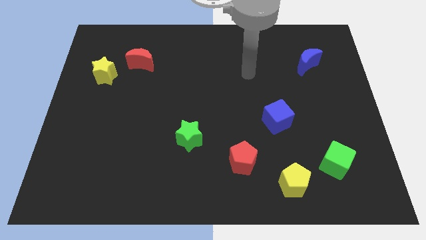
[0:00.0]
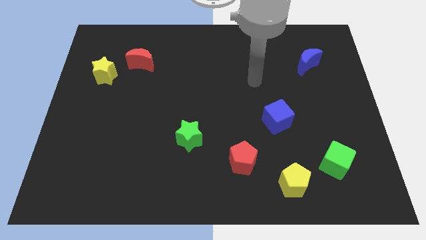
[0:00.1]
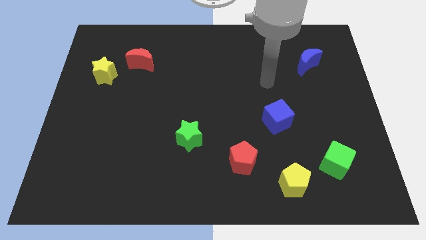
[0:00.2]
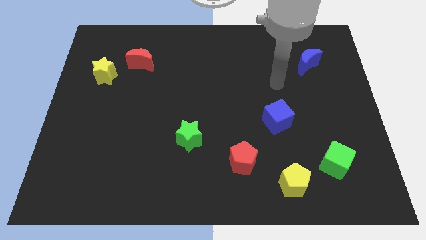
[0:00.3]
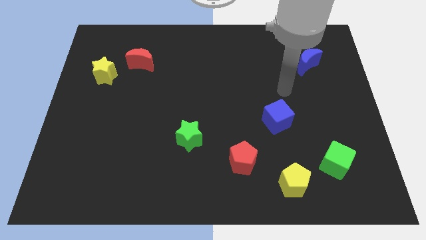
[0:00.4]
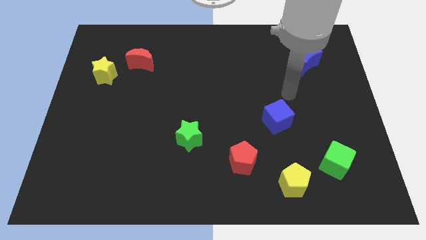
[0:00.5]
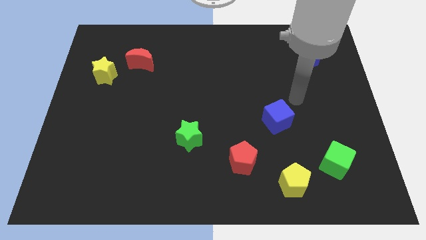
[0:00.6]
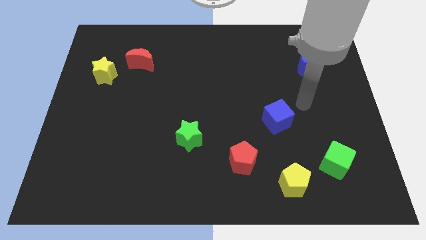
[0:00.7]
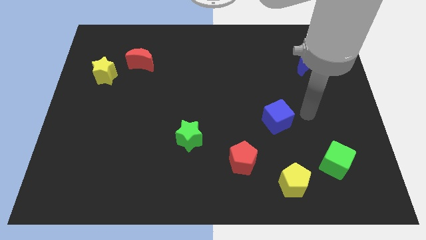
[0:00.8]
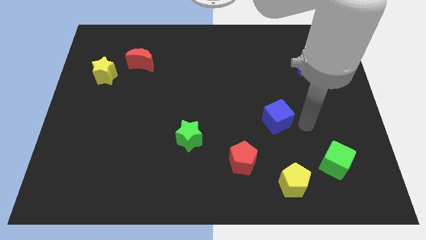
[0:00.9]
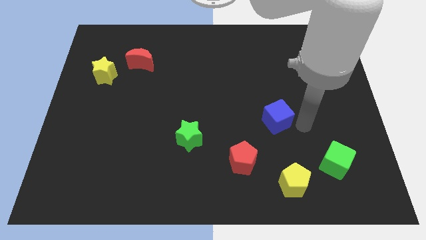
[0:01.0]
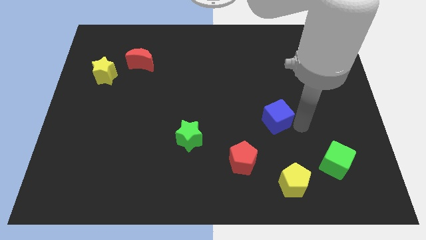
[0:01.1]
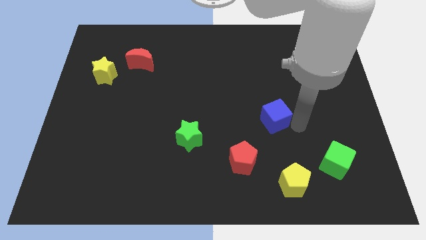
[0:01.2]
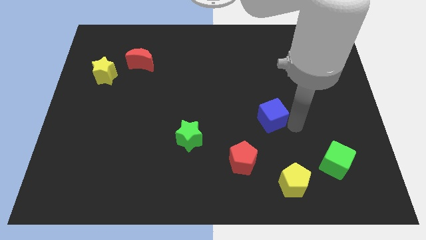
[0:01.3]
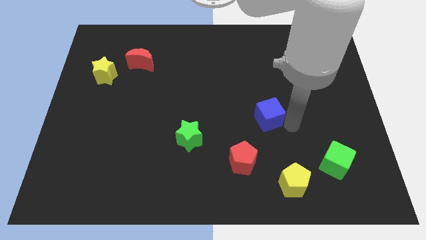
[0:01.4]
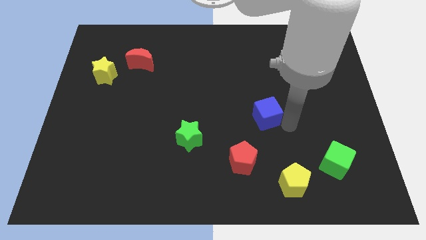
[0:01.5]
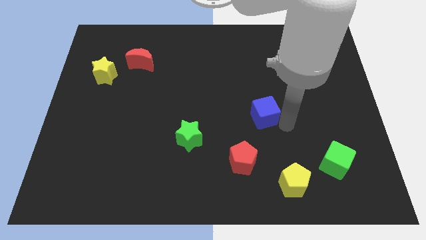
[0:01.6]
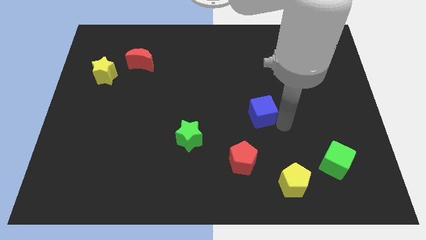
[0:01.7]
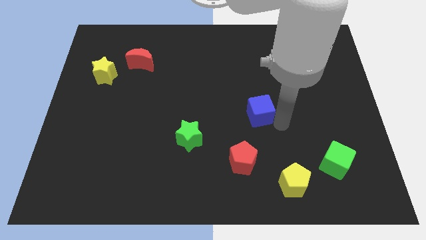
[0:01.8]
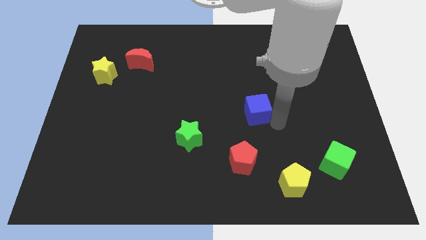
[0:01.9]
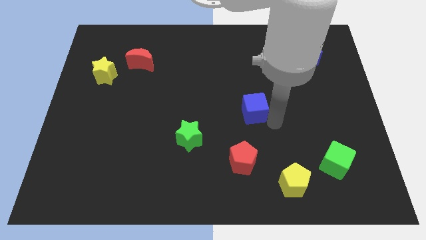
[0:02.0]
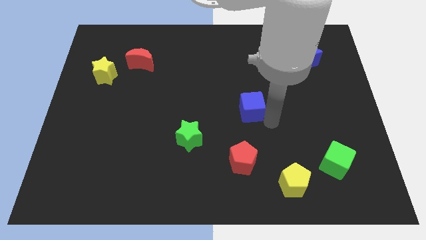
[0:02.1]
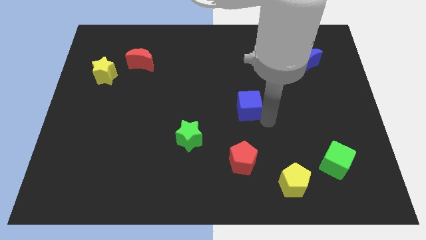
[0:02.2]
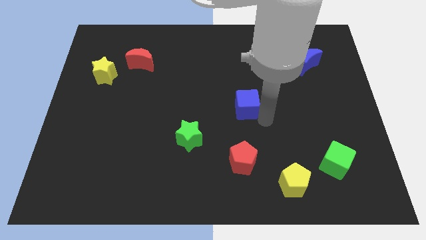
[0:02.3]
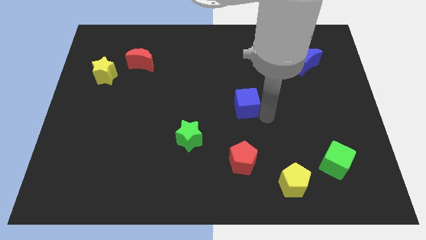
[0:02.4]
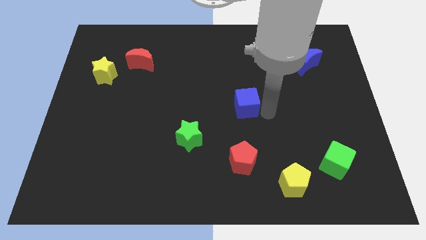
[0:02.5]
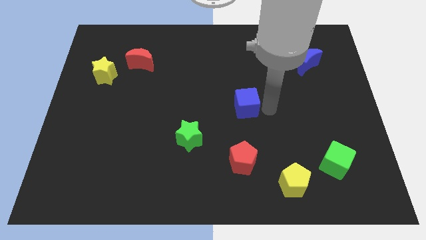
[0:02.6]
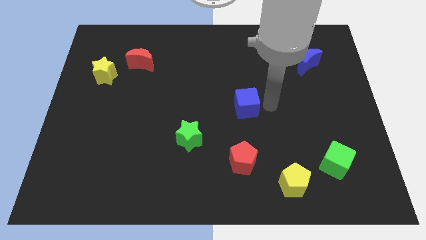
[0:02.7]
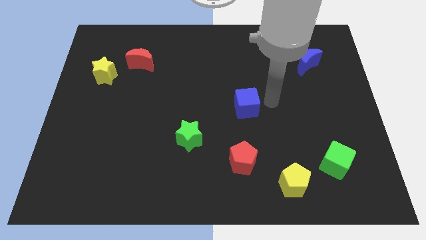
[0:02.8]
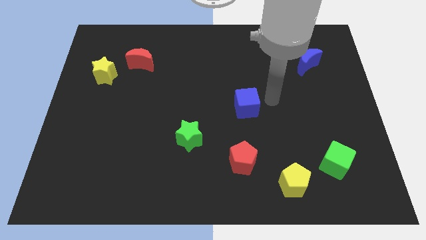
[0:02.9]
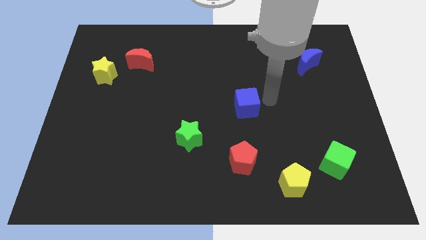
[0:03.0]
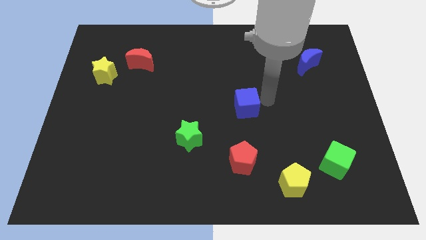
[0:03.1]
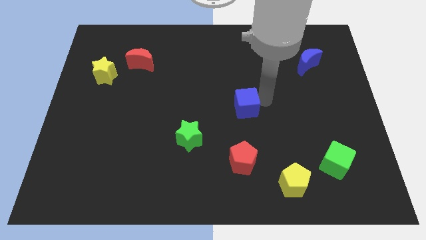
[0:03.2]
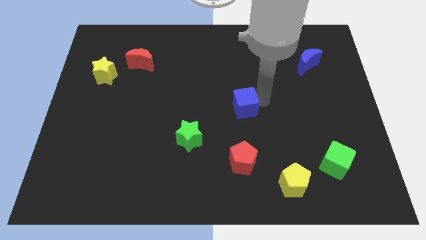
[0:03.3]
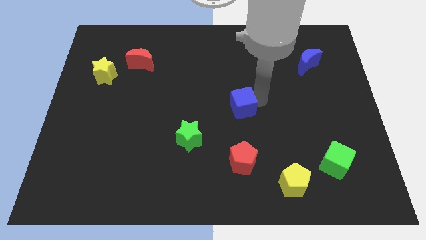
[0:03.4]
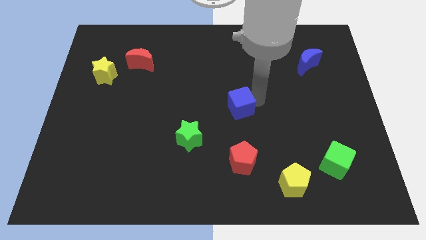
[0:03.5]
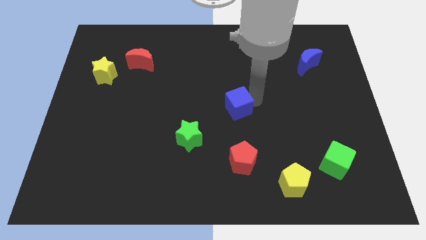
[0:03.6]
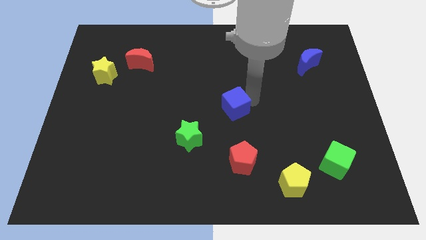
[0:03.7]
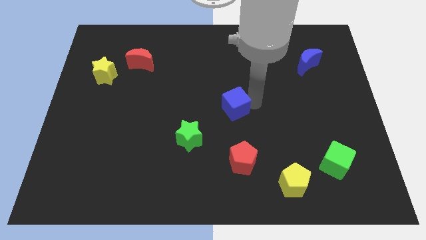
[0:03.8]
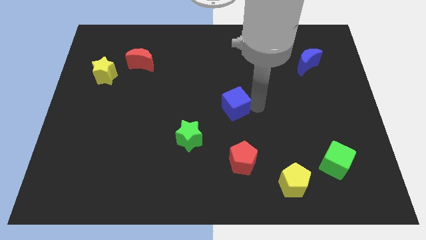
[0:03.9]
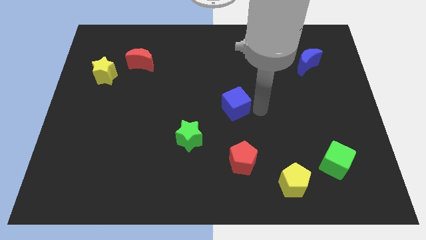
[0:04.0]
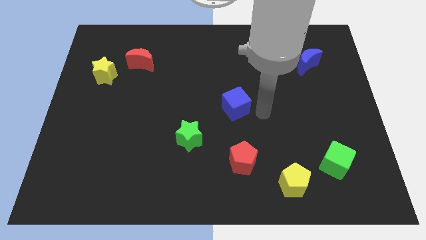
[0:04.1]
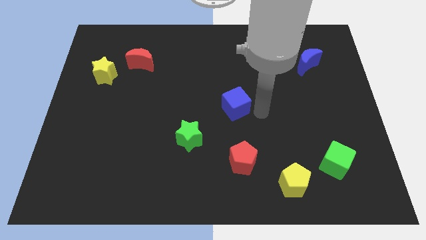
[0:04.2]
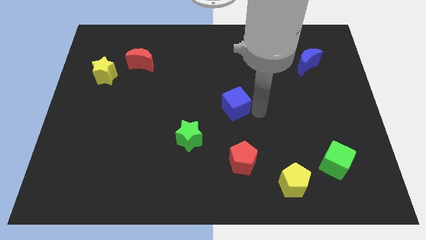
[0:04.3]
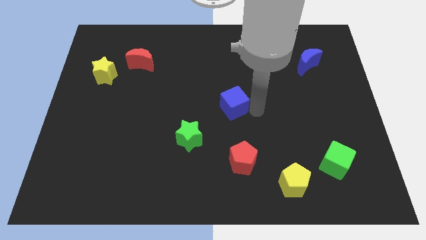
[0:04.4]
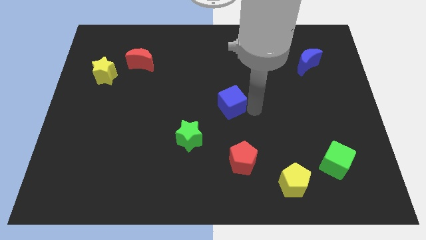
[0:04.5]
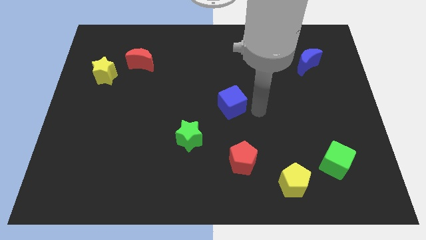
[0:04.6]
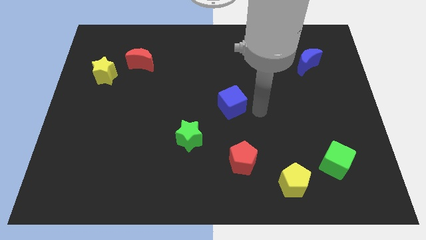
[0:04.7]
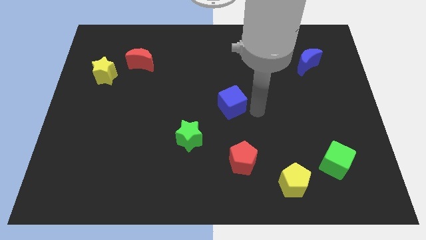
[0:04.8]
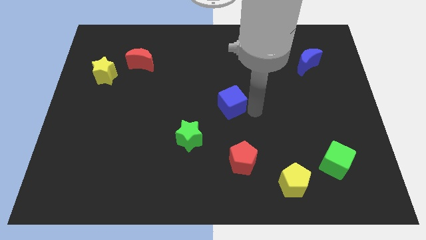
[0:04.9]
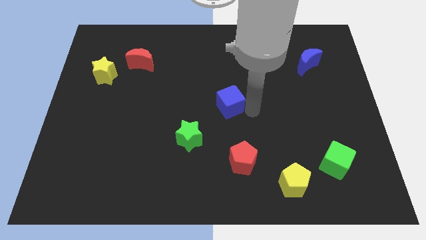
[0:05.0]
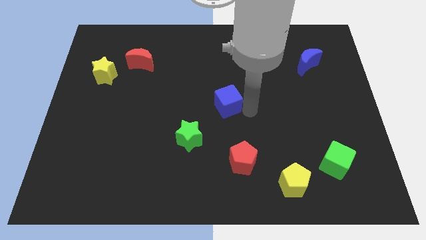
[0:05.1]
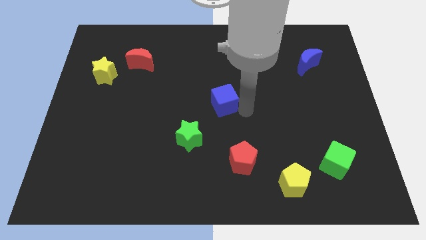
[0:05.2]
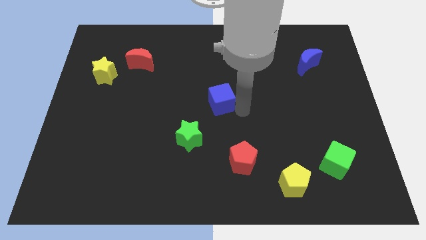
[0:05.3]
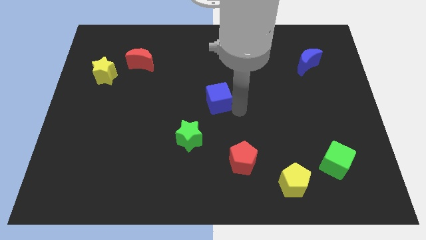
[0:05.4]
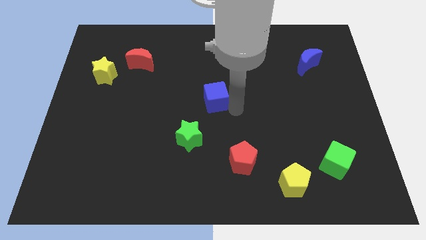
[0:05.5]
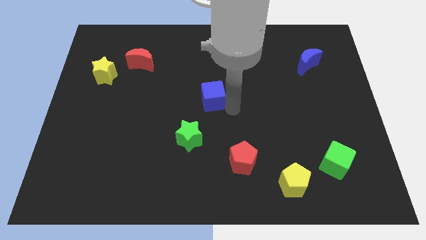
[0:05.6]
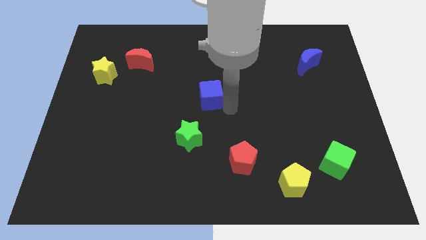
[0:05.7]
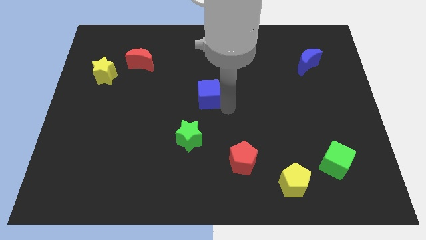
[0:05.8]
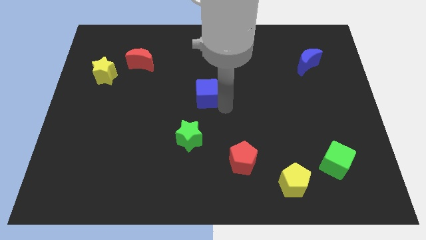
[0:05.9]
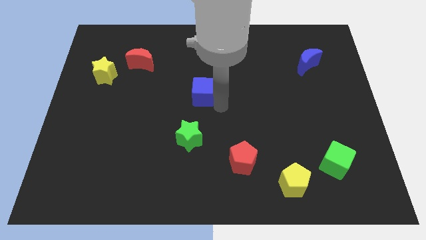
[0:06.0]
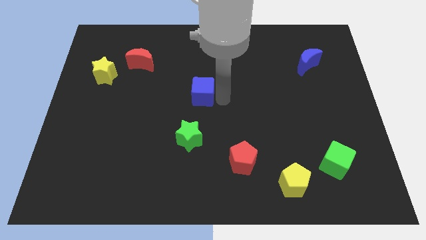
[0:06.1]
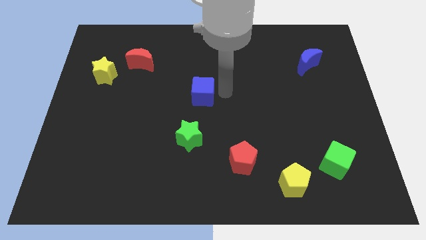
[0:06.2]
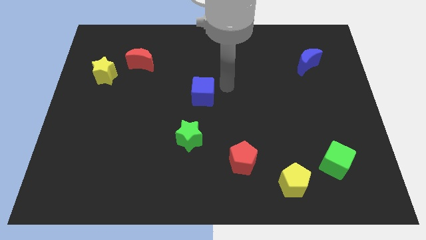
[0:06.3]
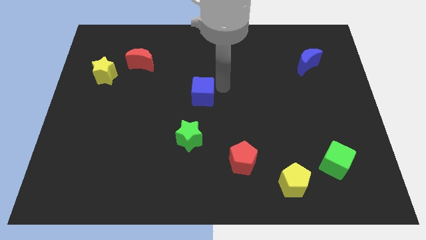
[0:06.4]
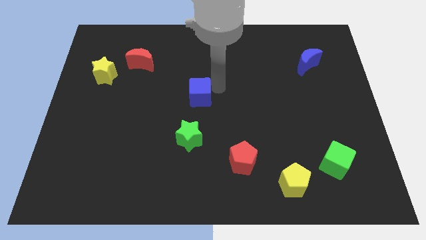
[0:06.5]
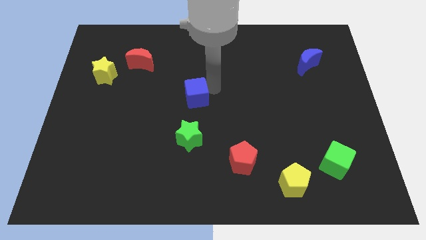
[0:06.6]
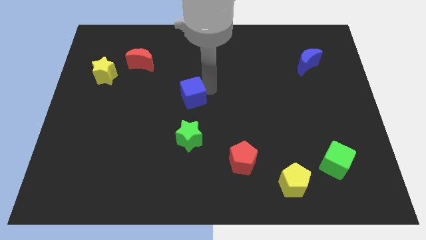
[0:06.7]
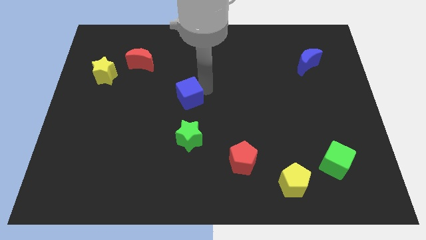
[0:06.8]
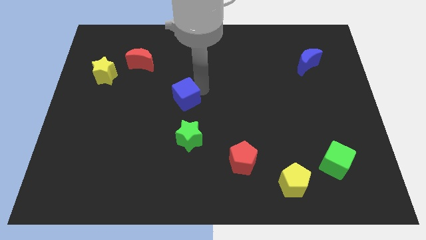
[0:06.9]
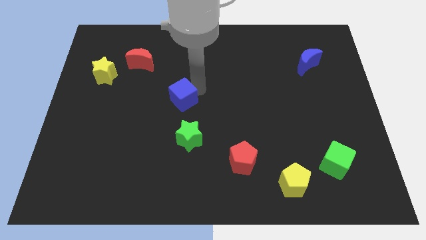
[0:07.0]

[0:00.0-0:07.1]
push the blue cube left

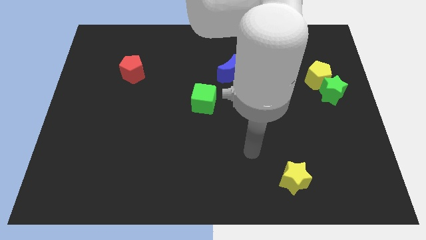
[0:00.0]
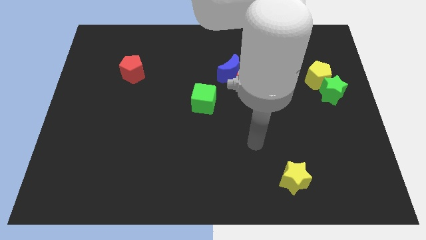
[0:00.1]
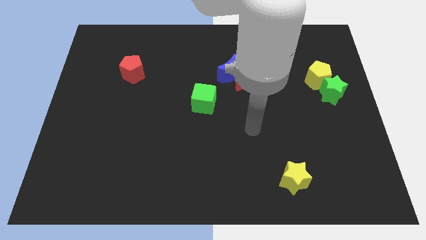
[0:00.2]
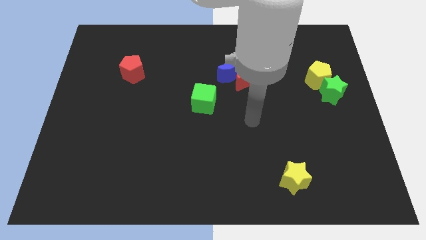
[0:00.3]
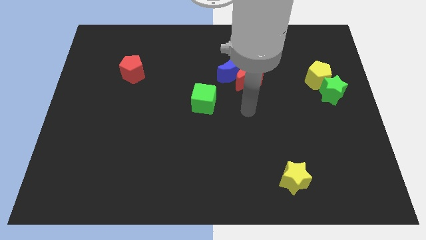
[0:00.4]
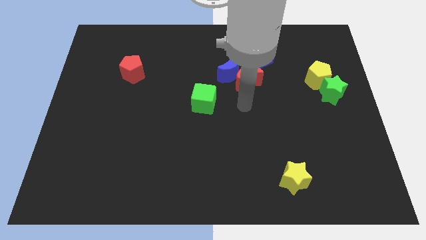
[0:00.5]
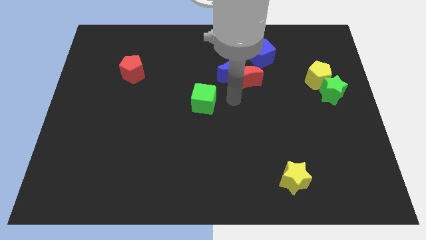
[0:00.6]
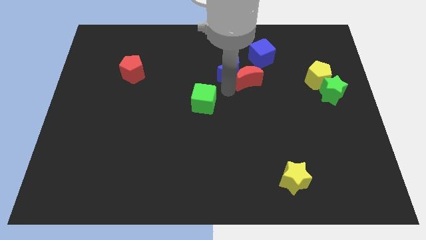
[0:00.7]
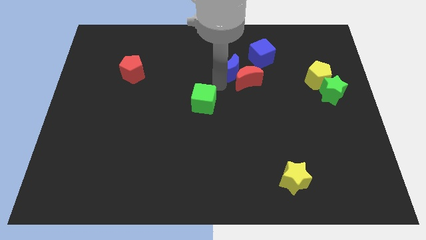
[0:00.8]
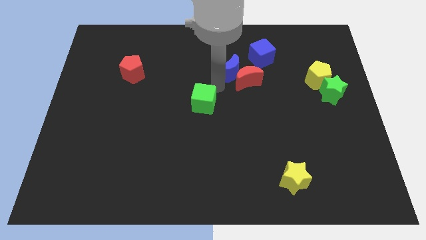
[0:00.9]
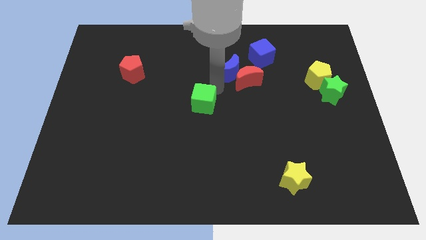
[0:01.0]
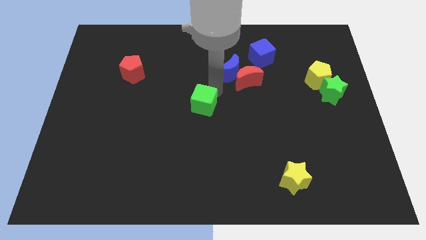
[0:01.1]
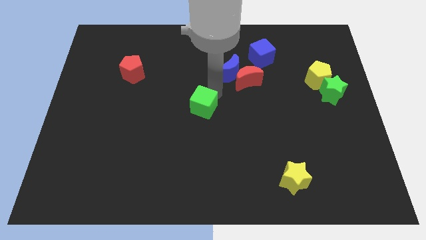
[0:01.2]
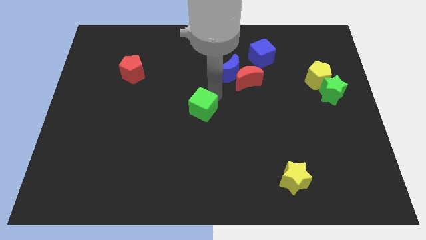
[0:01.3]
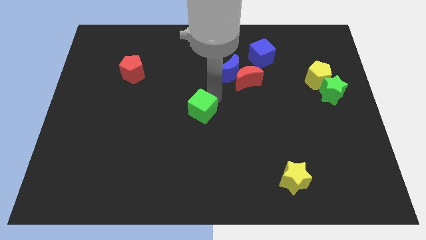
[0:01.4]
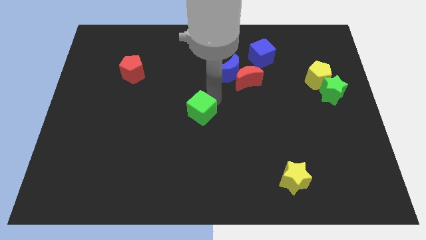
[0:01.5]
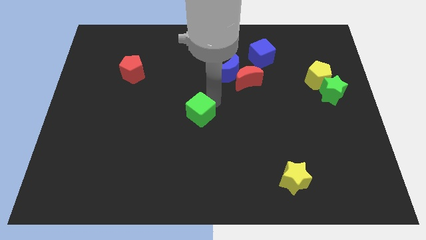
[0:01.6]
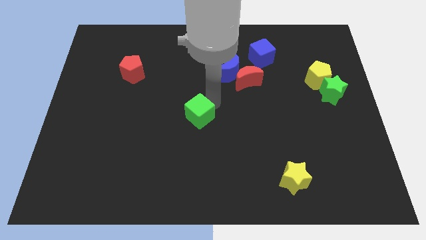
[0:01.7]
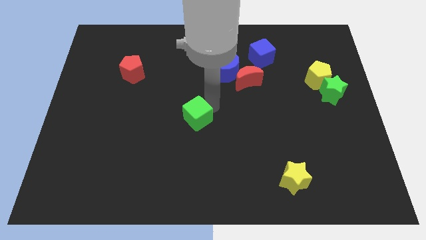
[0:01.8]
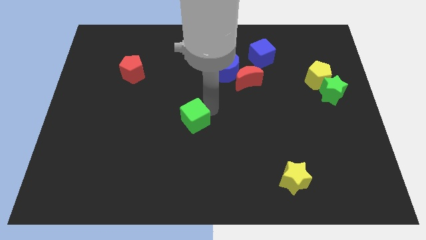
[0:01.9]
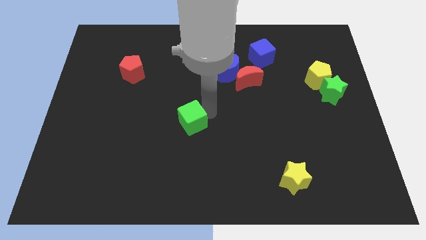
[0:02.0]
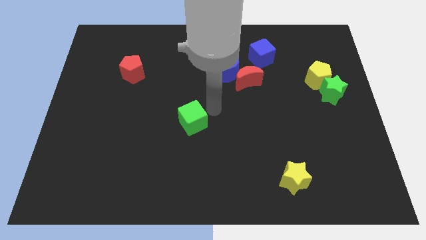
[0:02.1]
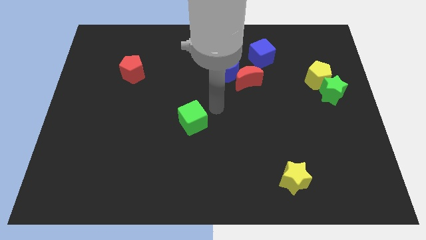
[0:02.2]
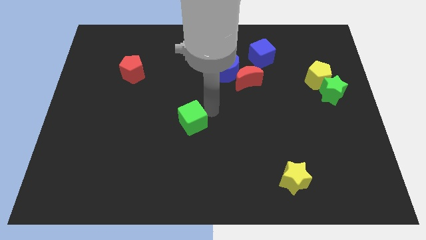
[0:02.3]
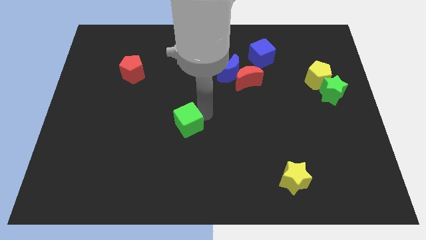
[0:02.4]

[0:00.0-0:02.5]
slightly push the green cube diagonally down and left
